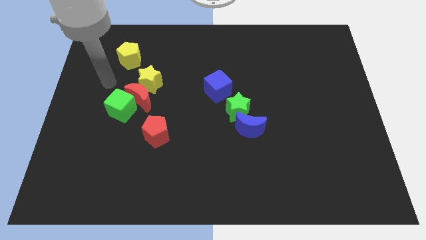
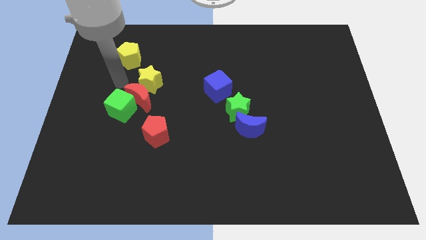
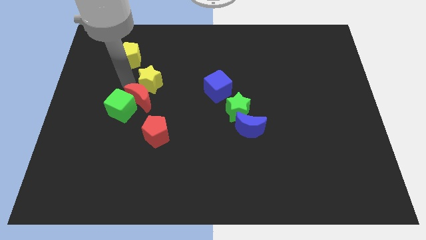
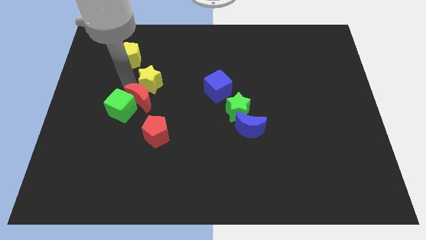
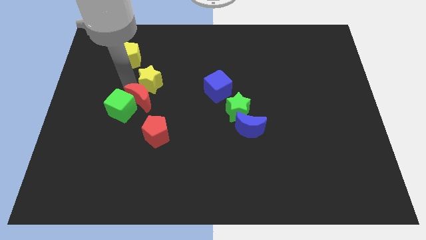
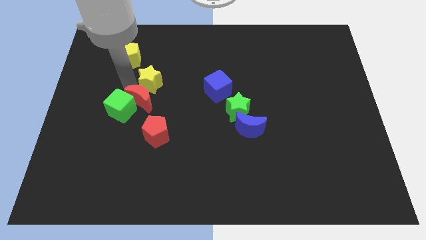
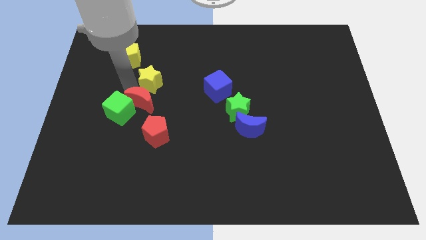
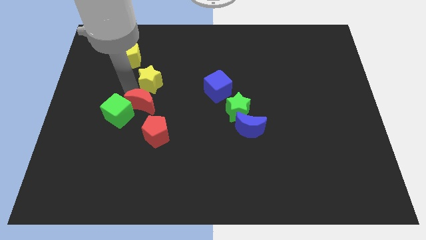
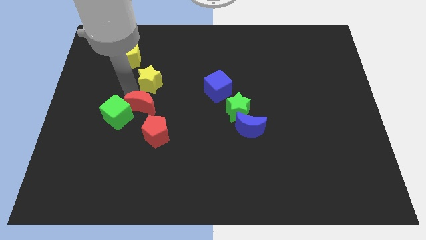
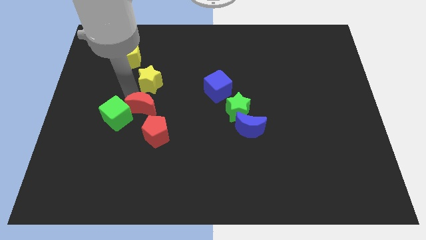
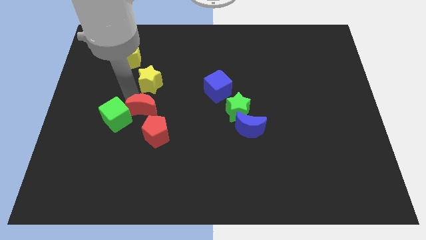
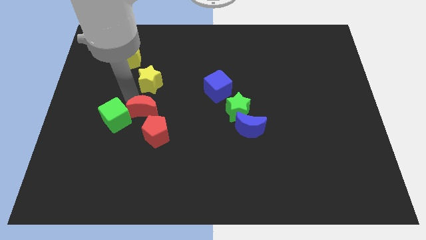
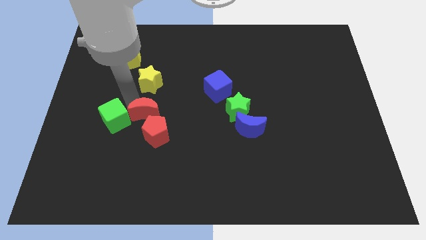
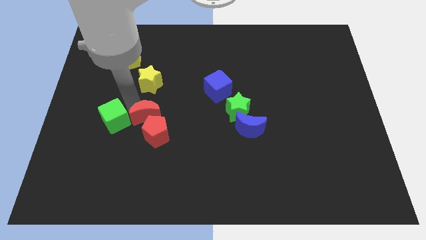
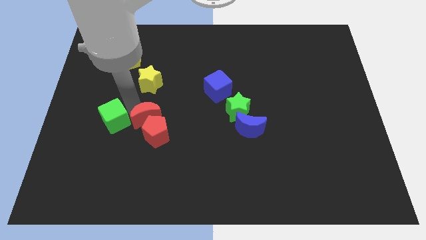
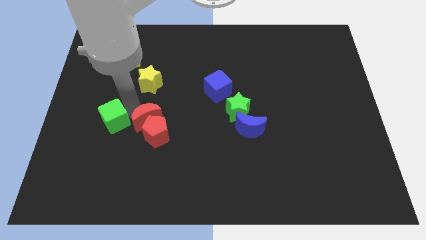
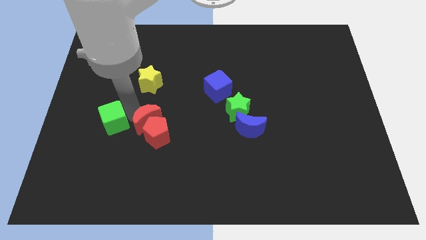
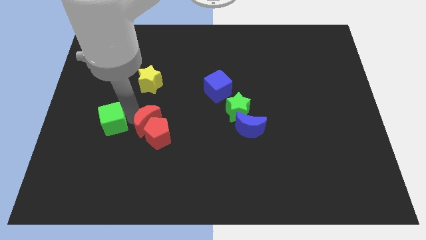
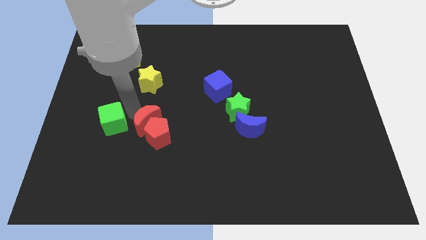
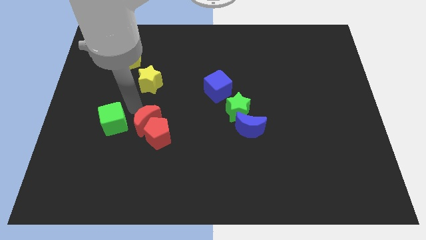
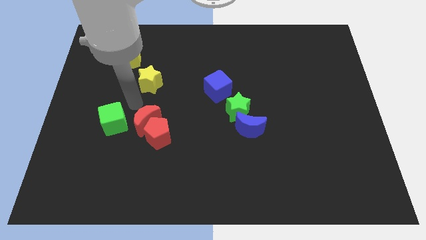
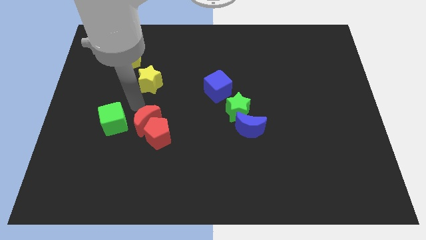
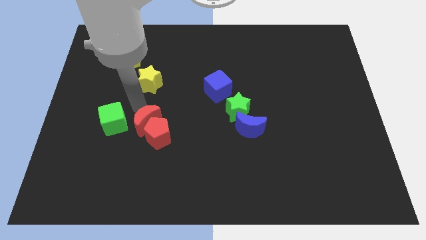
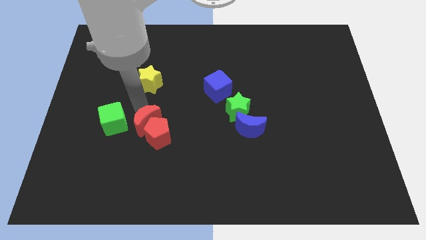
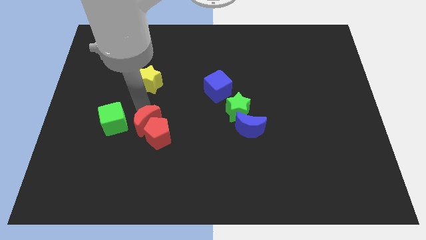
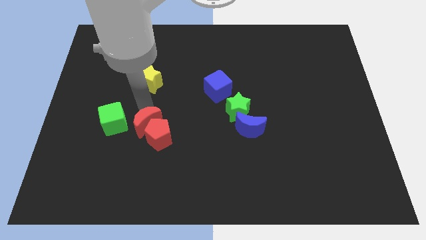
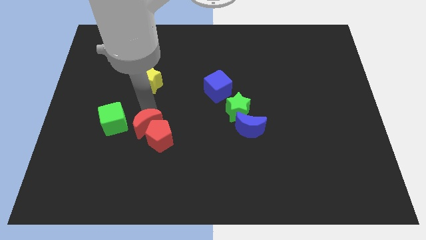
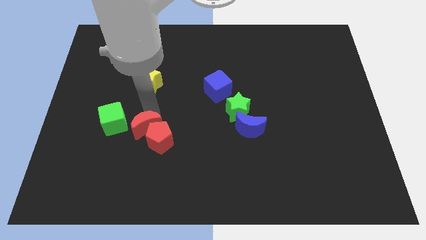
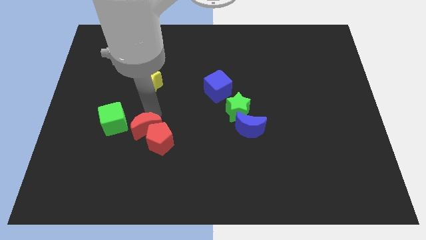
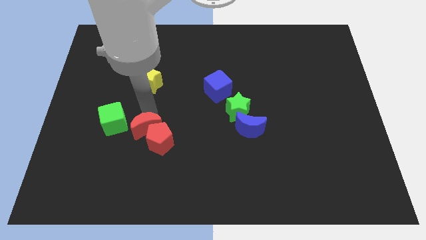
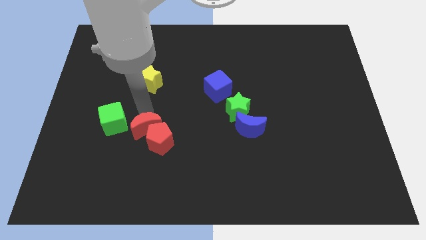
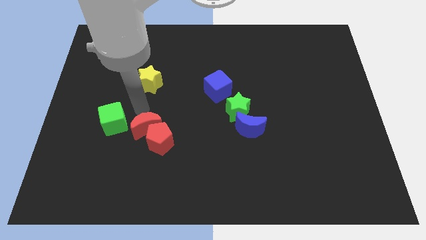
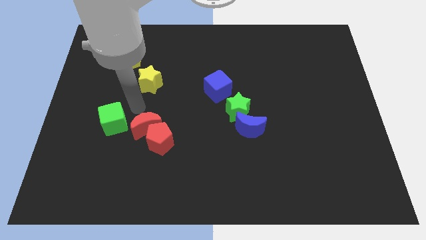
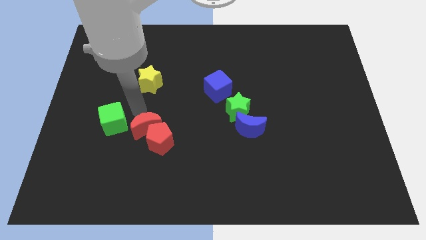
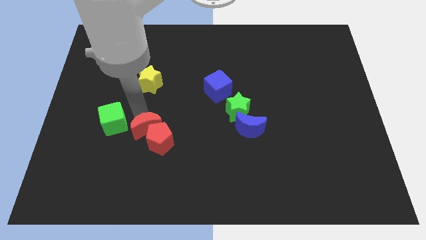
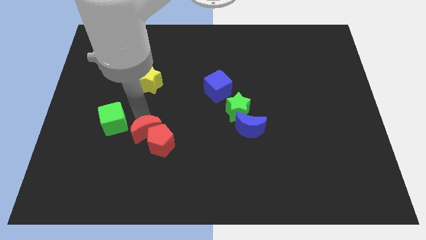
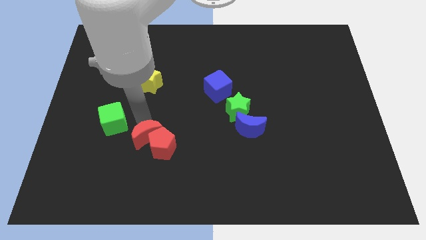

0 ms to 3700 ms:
separate the red moon from the green cube and yellow star

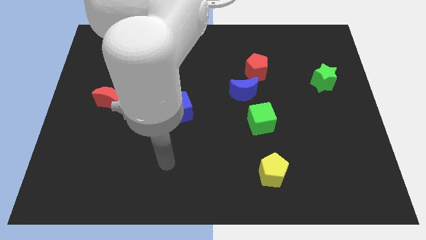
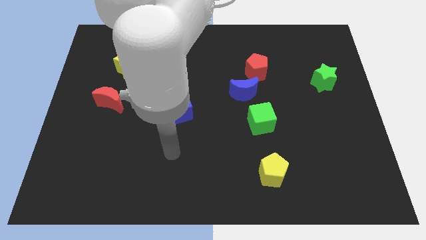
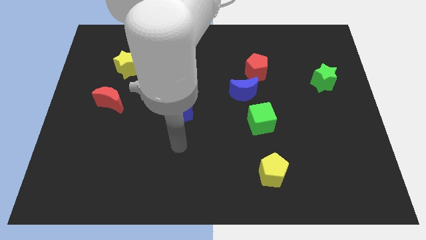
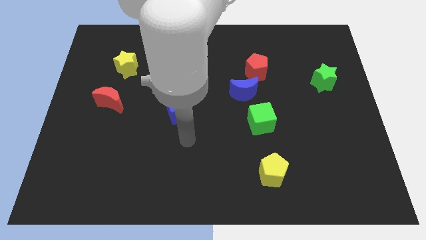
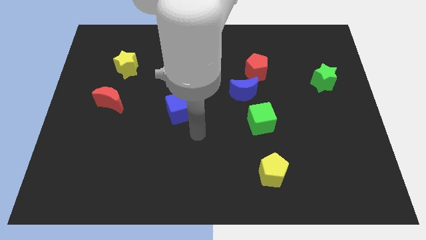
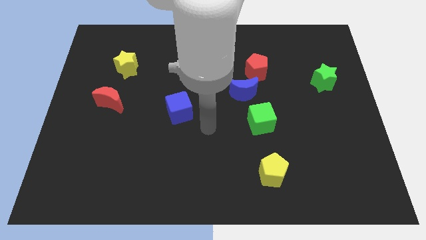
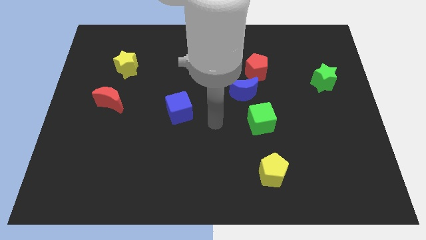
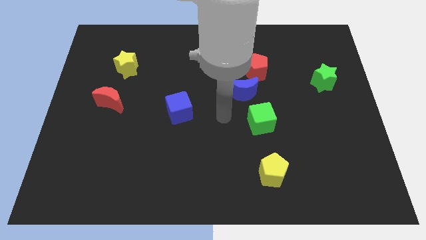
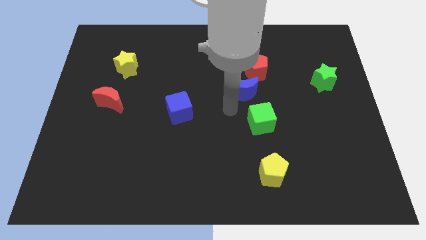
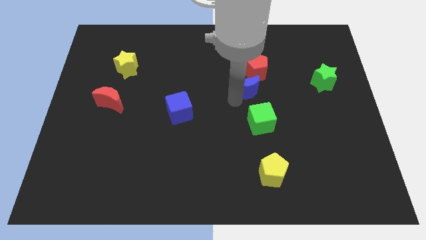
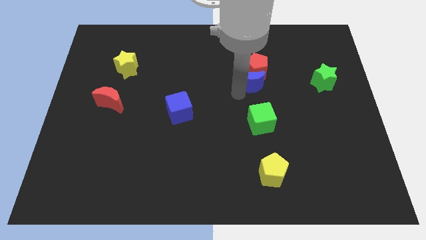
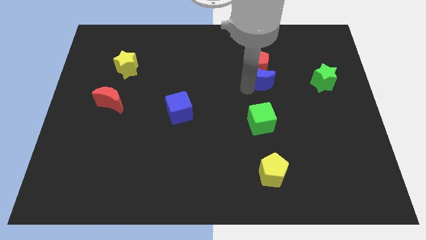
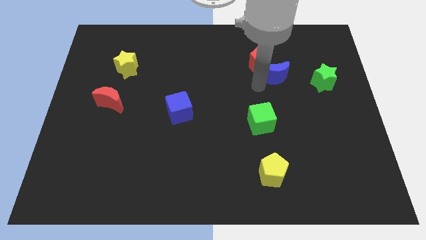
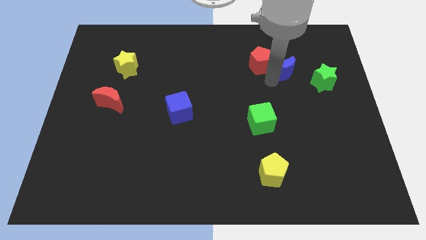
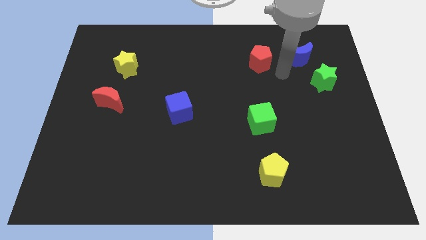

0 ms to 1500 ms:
separate the red pentagon from the blue moon

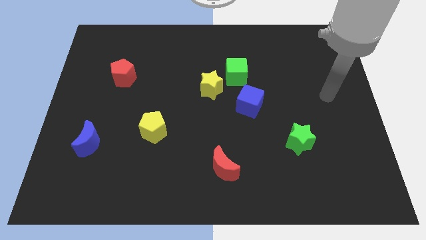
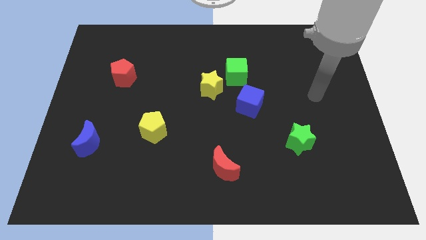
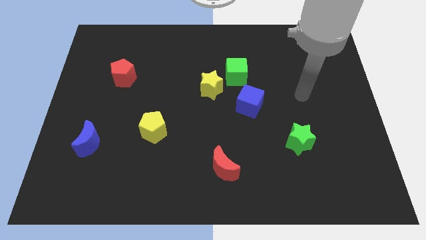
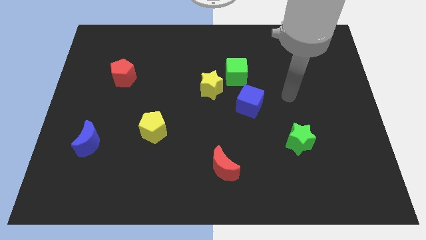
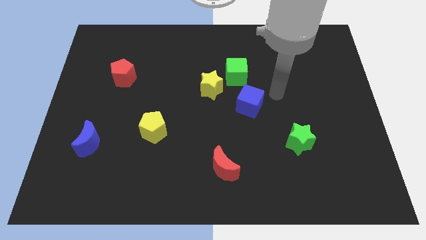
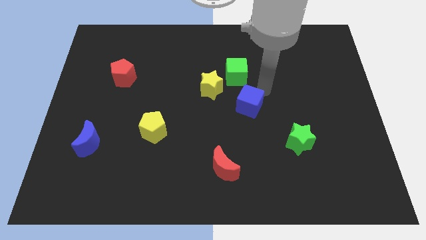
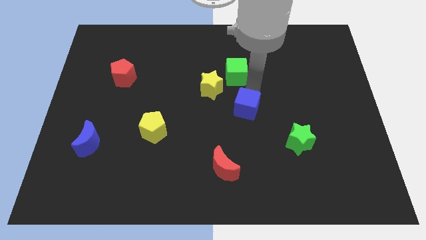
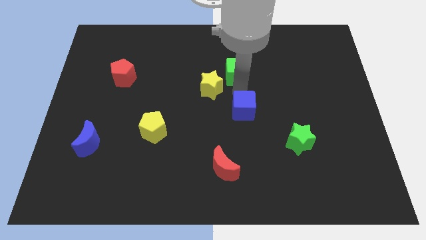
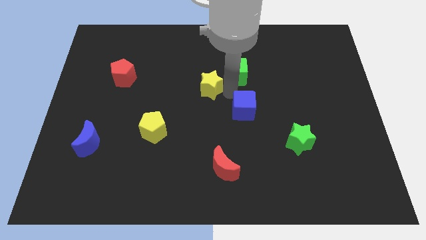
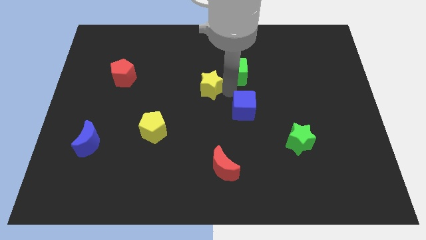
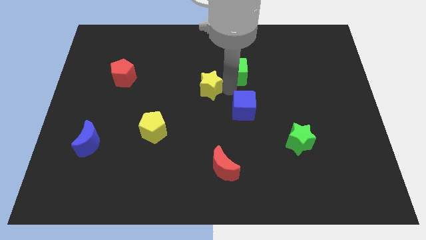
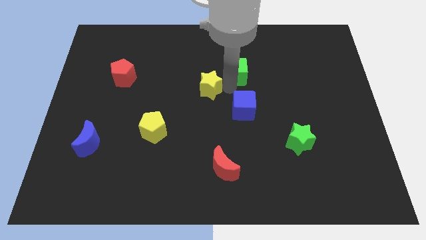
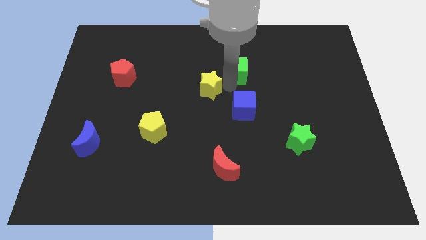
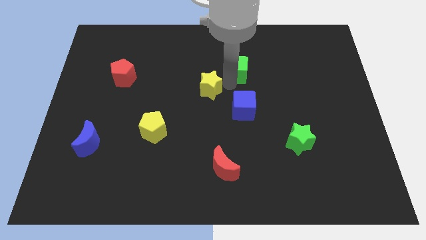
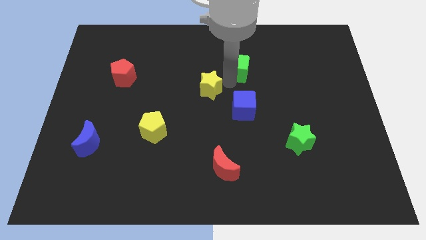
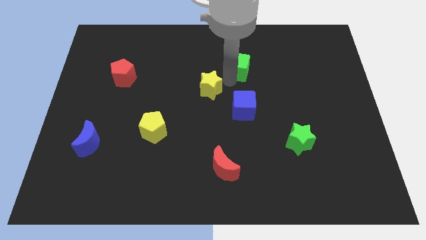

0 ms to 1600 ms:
separate the green cube from the yellow star and blue cube

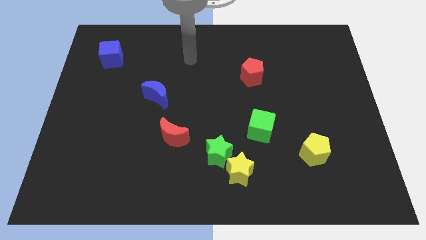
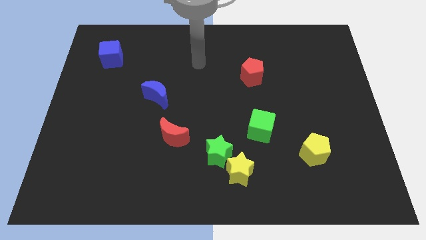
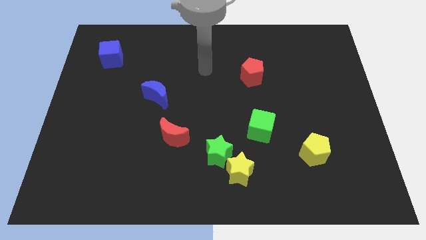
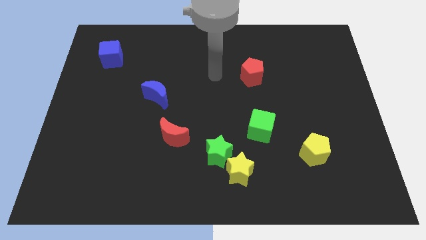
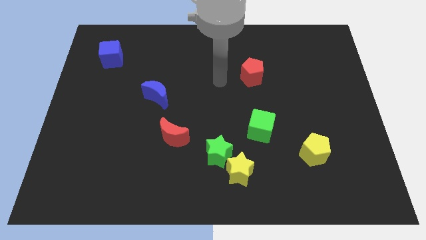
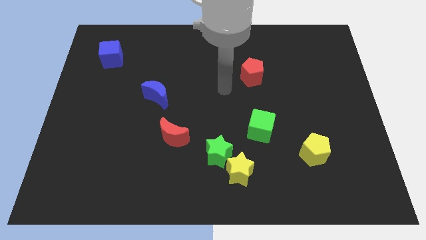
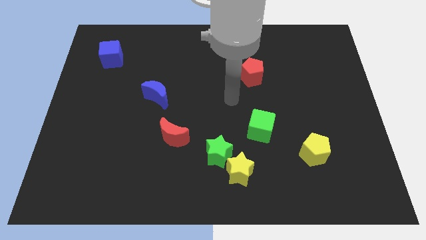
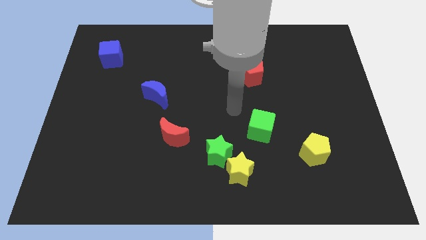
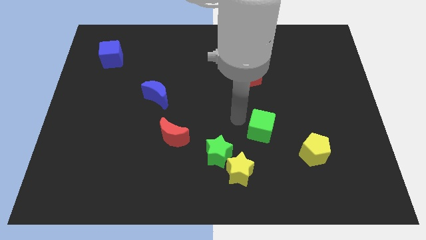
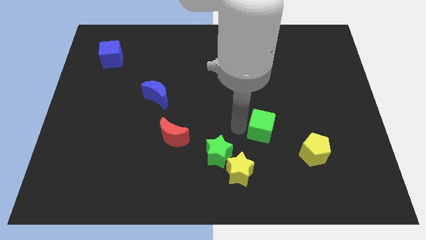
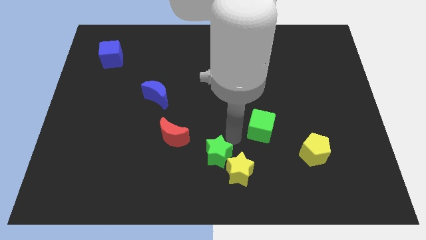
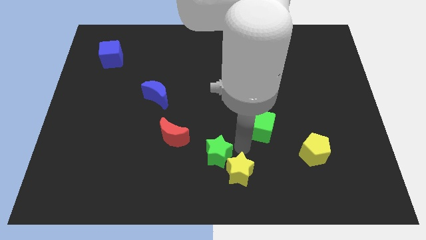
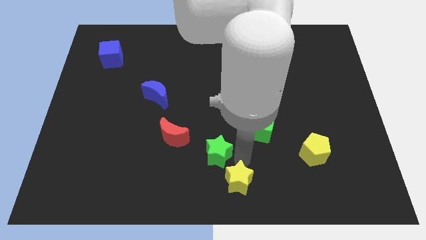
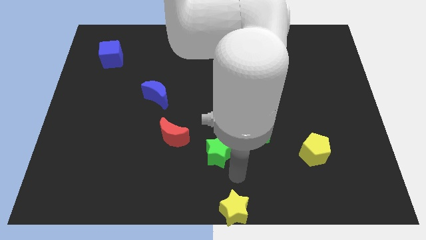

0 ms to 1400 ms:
pull the green star apart from the yellow star

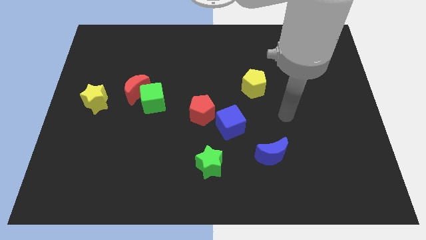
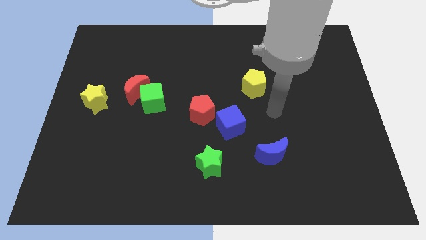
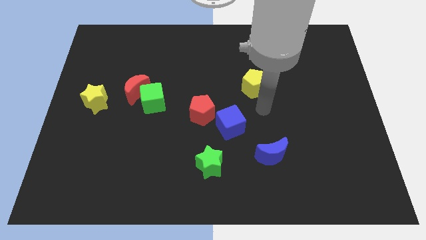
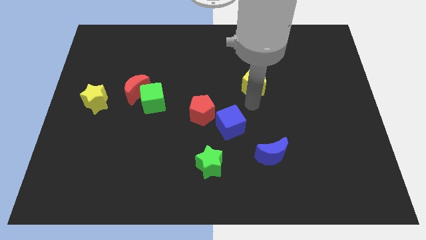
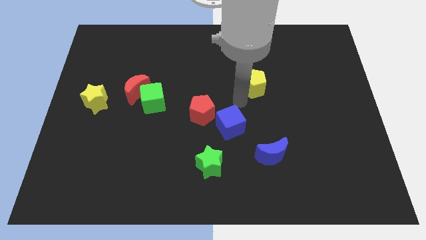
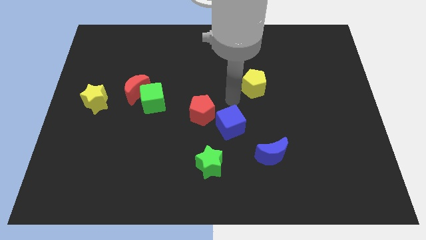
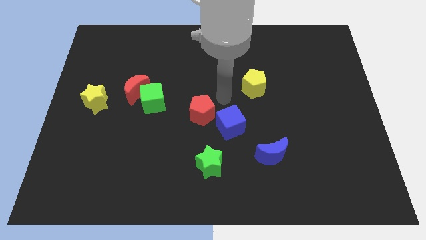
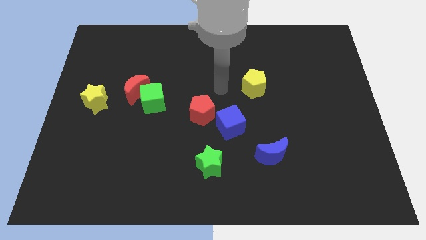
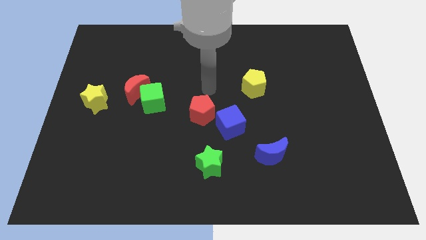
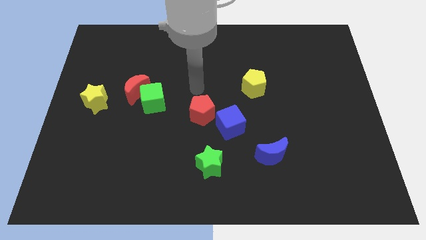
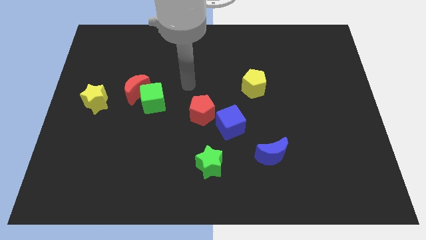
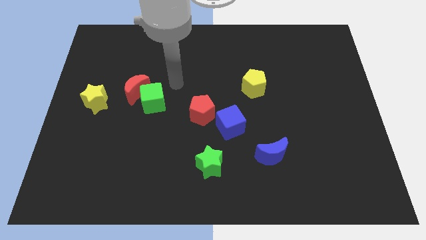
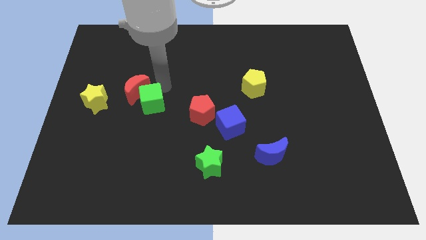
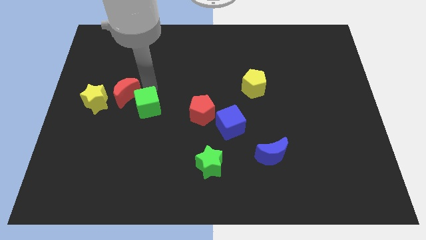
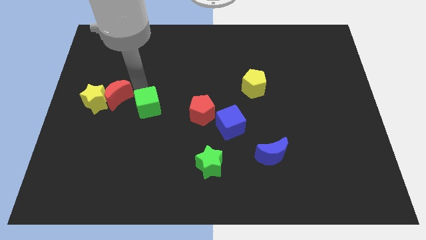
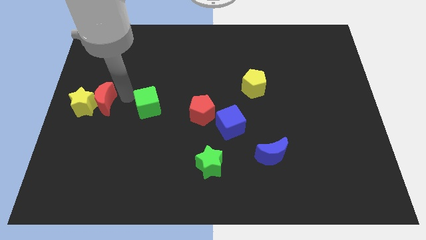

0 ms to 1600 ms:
move the green cube away from the red moon
